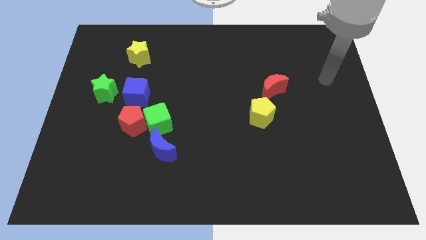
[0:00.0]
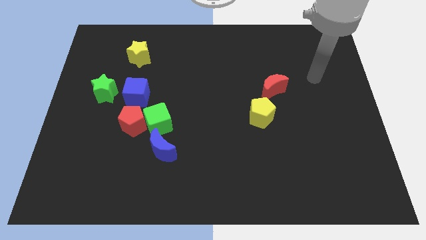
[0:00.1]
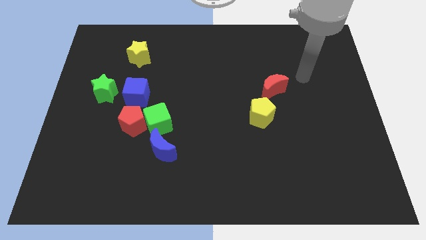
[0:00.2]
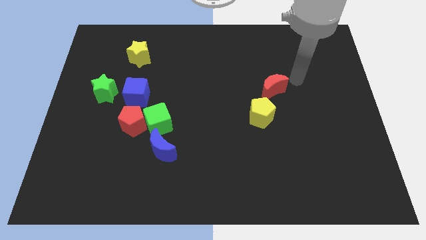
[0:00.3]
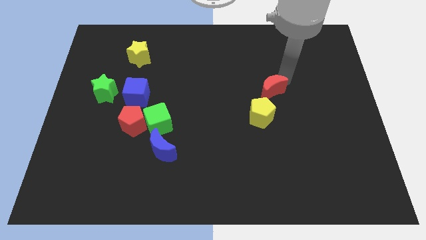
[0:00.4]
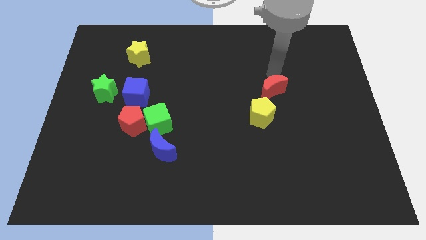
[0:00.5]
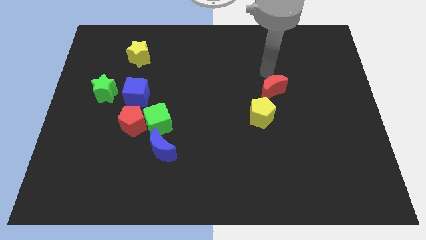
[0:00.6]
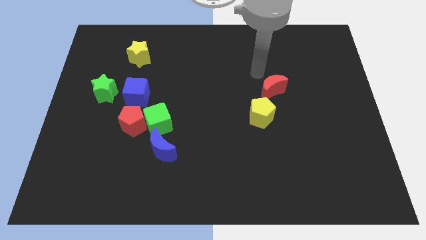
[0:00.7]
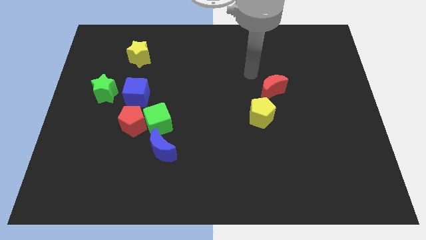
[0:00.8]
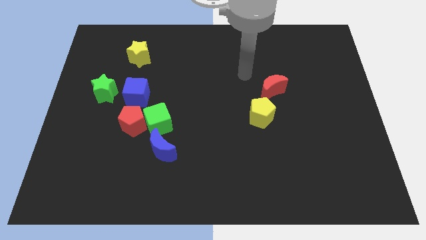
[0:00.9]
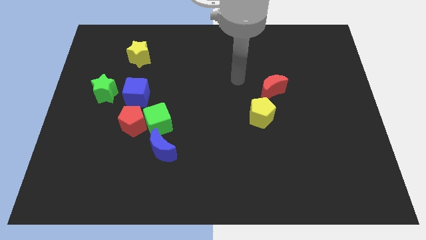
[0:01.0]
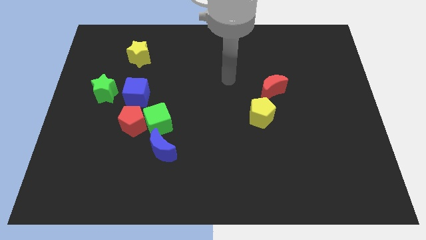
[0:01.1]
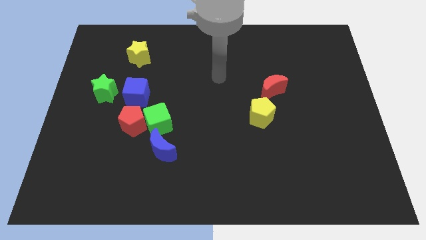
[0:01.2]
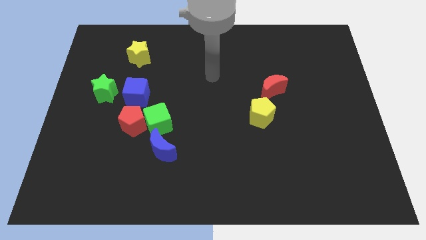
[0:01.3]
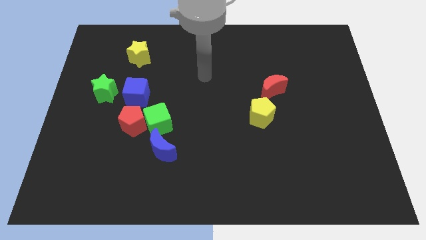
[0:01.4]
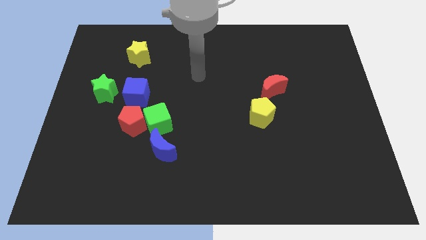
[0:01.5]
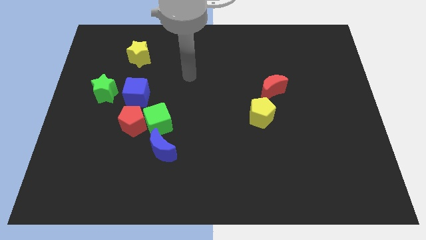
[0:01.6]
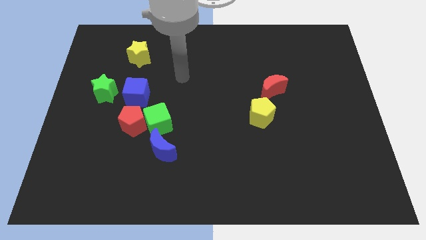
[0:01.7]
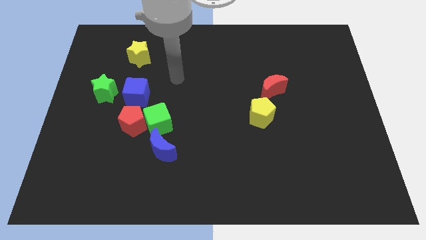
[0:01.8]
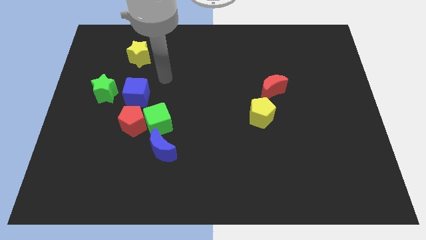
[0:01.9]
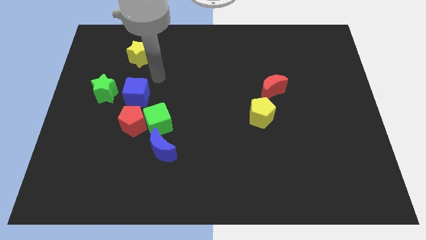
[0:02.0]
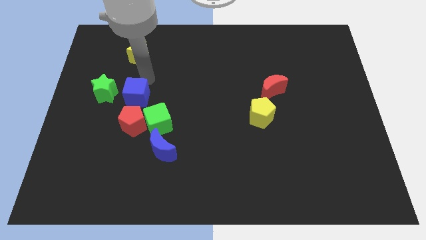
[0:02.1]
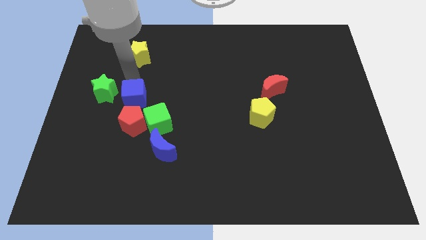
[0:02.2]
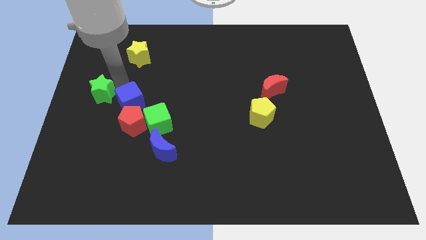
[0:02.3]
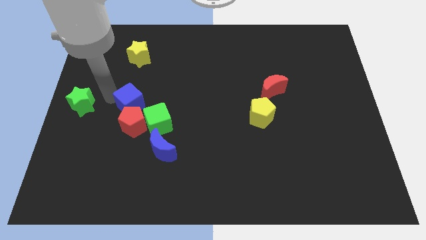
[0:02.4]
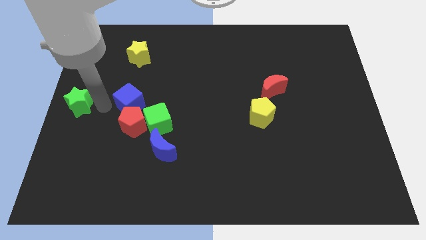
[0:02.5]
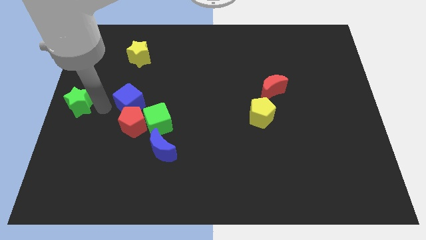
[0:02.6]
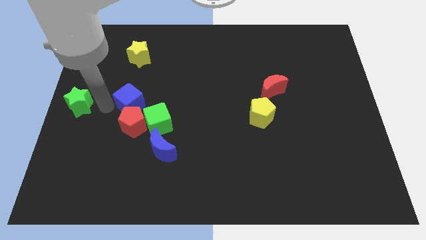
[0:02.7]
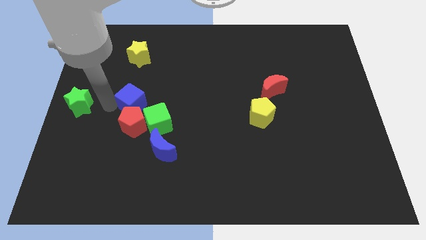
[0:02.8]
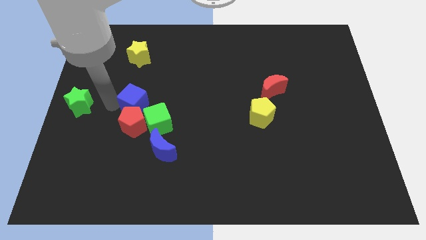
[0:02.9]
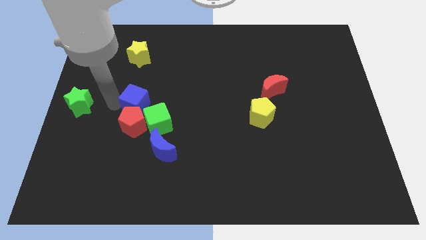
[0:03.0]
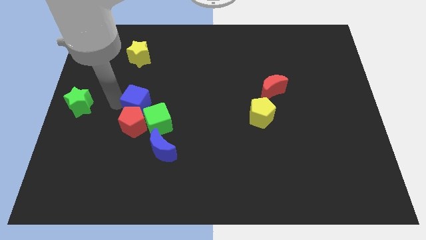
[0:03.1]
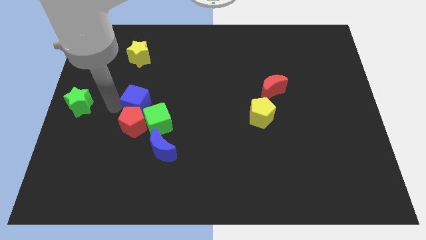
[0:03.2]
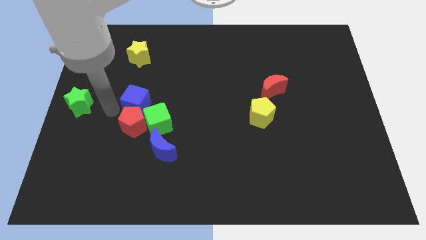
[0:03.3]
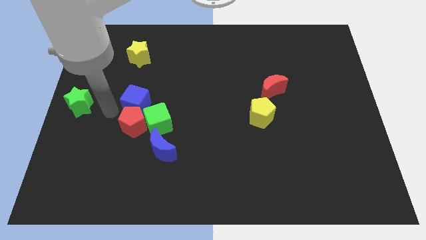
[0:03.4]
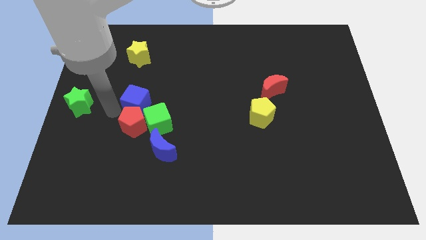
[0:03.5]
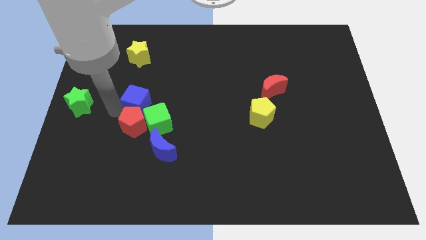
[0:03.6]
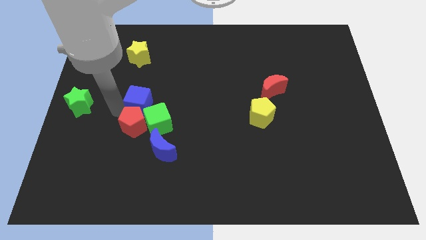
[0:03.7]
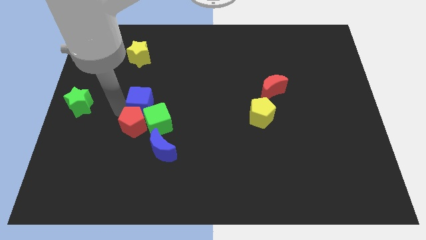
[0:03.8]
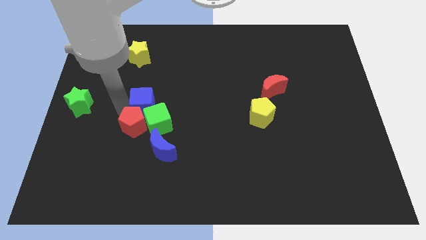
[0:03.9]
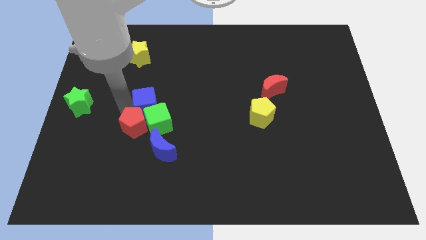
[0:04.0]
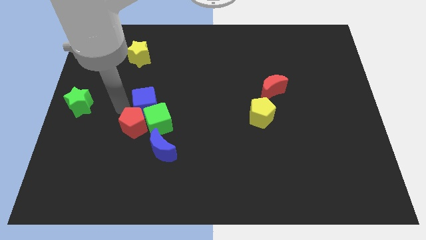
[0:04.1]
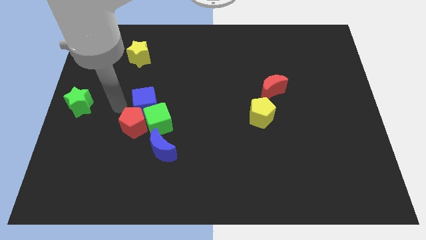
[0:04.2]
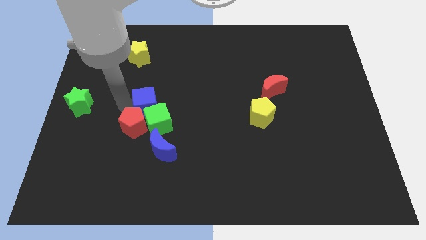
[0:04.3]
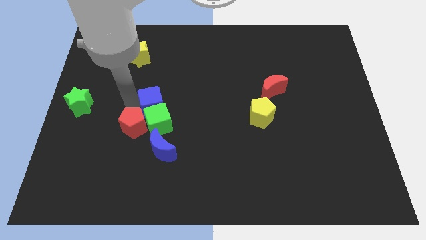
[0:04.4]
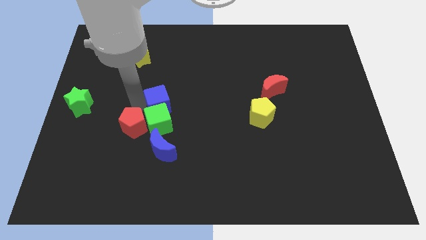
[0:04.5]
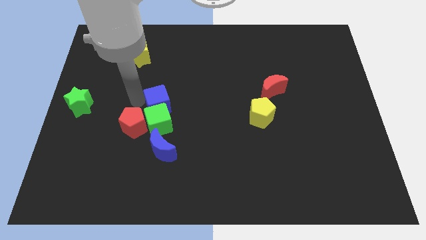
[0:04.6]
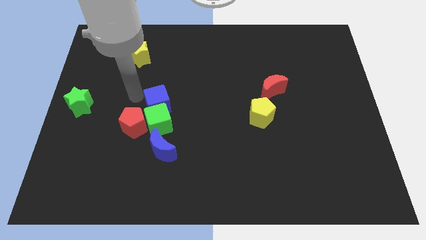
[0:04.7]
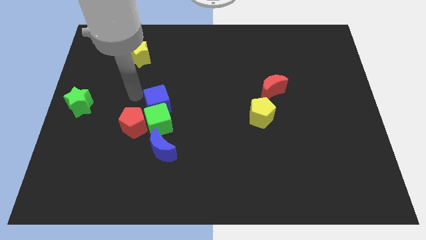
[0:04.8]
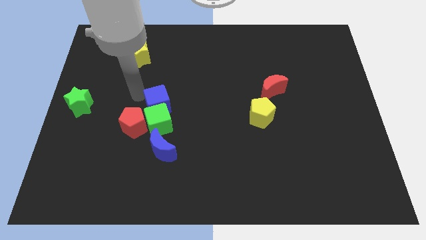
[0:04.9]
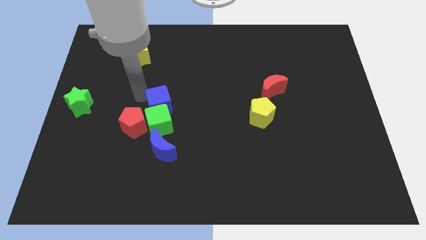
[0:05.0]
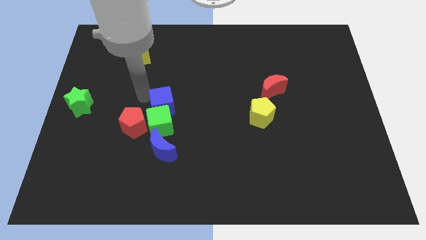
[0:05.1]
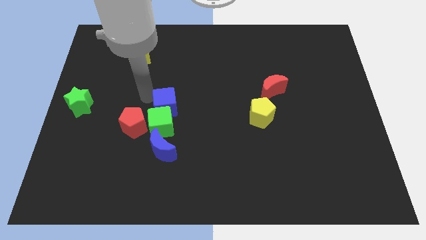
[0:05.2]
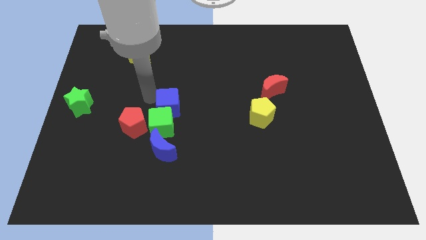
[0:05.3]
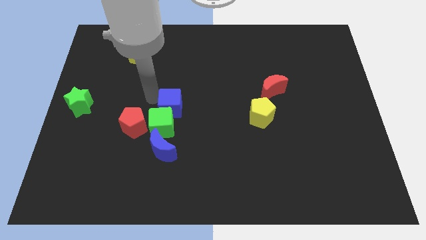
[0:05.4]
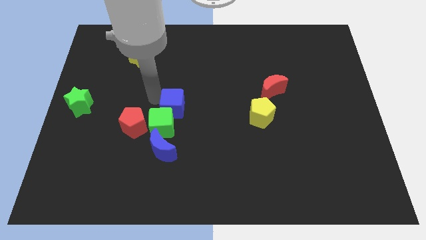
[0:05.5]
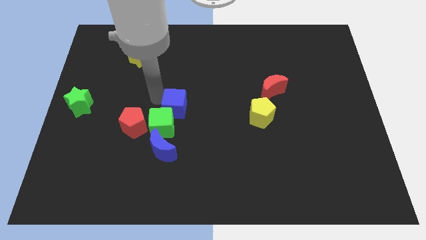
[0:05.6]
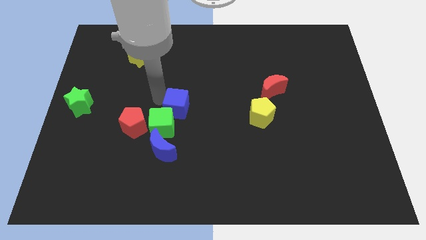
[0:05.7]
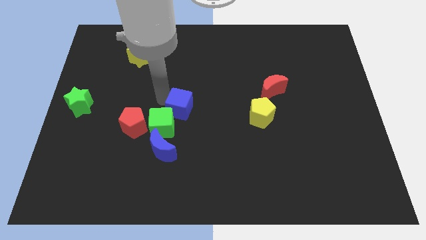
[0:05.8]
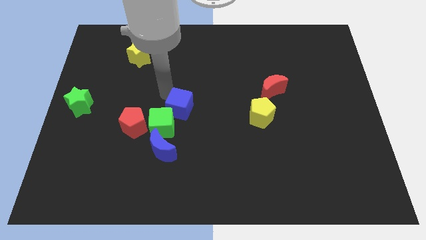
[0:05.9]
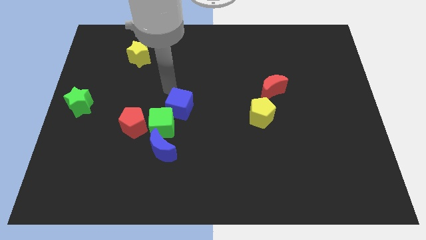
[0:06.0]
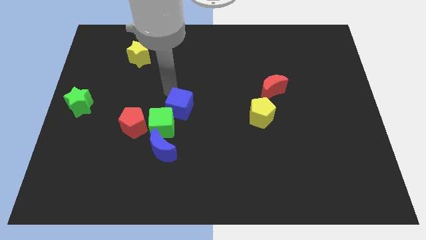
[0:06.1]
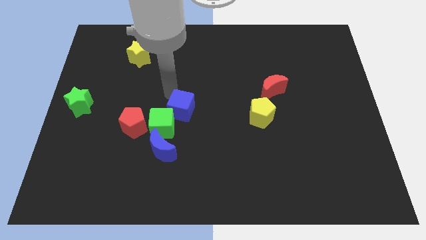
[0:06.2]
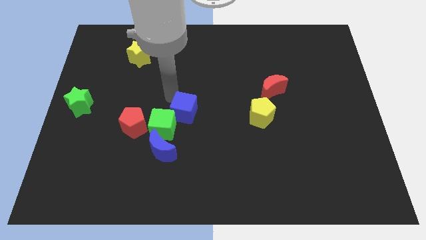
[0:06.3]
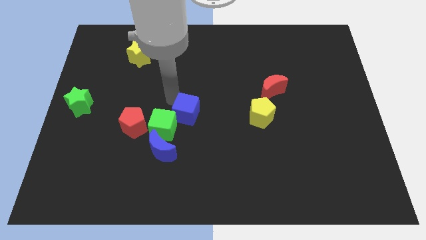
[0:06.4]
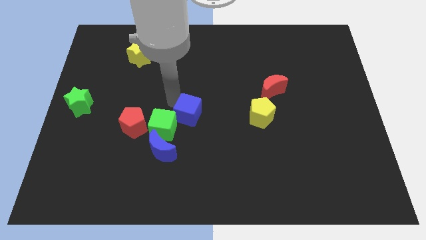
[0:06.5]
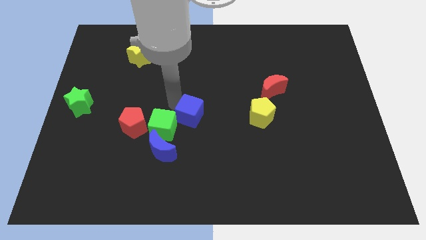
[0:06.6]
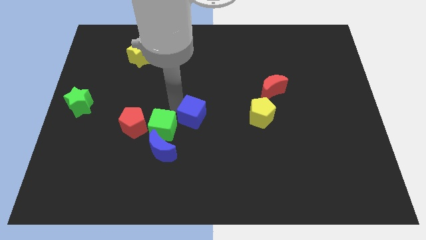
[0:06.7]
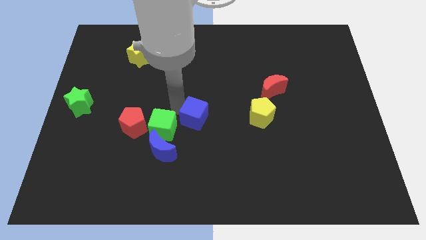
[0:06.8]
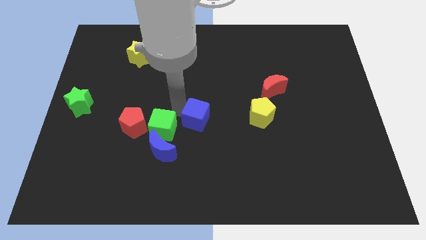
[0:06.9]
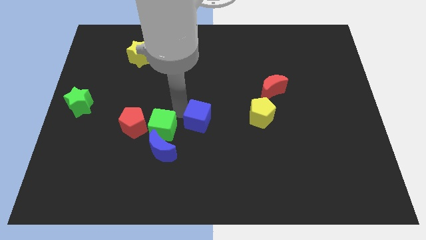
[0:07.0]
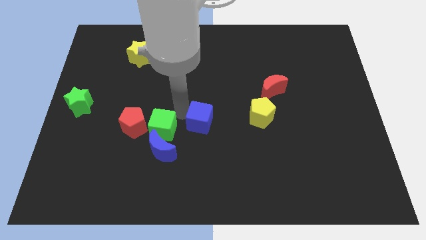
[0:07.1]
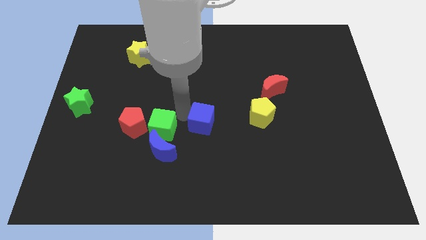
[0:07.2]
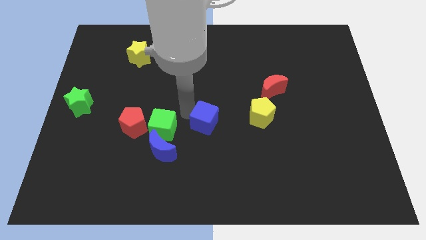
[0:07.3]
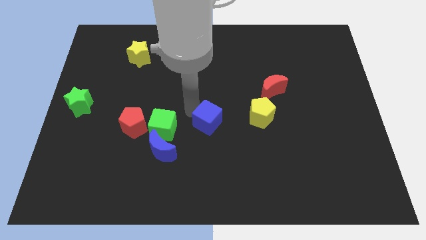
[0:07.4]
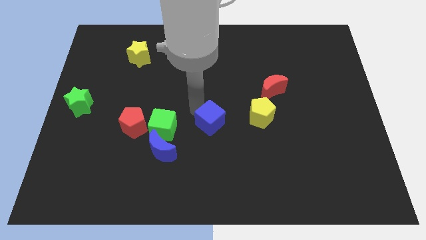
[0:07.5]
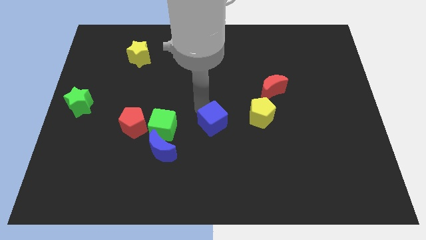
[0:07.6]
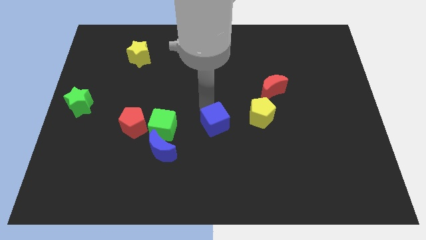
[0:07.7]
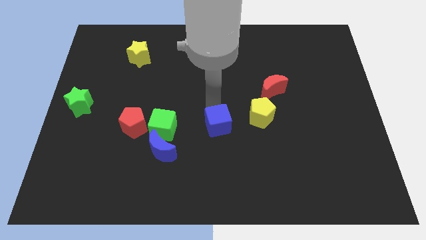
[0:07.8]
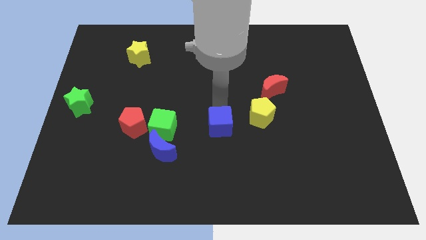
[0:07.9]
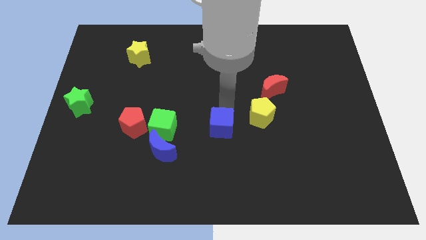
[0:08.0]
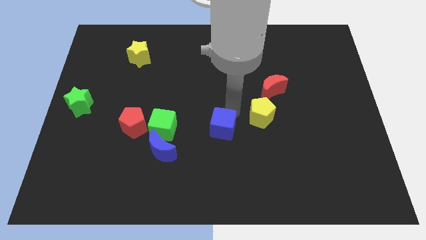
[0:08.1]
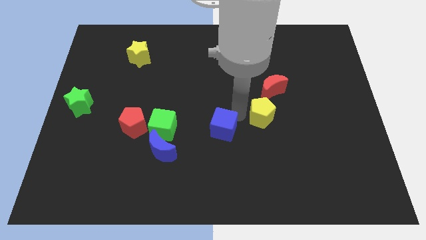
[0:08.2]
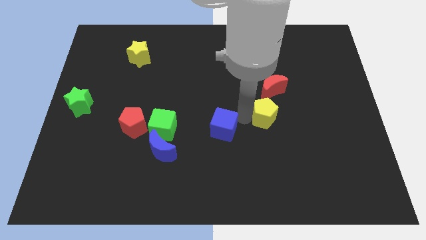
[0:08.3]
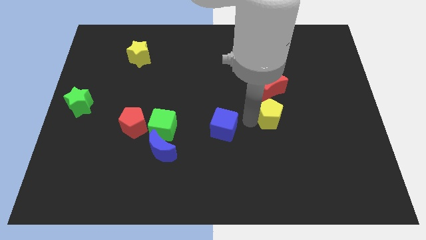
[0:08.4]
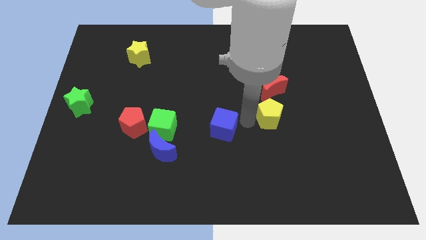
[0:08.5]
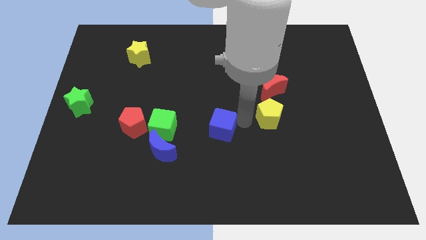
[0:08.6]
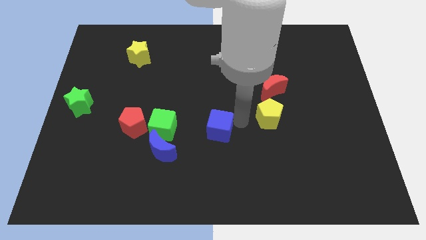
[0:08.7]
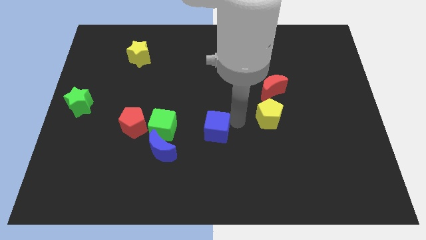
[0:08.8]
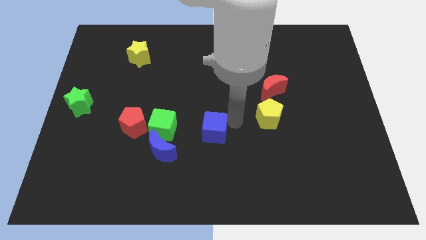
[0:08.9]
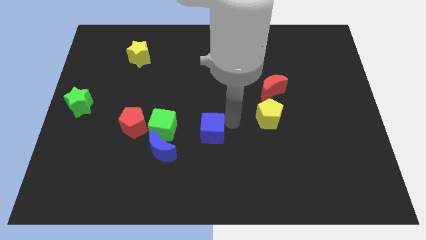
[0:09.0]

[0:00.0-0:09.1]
slide the blue cube just right of the blue moon
